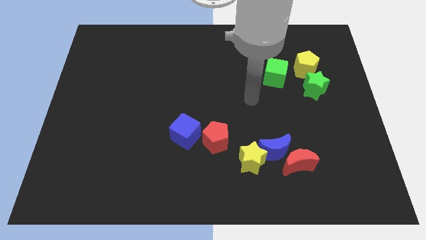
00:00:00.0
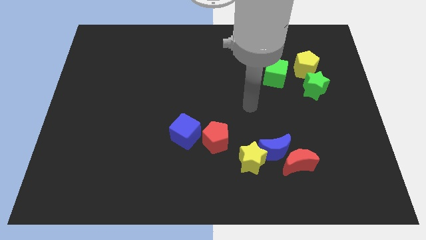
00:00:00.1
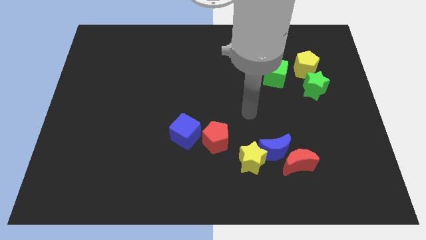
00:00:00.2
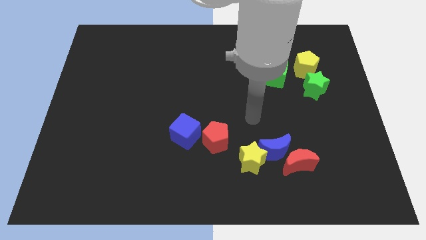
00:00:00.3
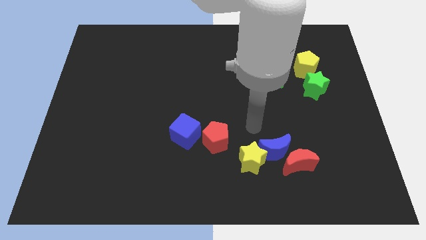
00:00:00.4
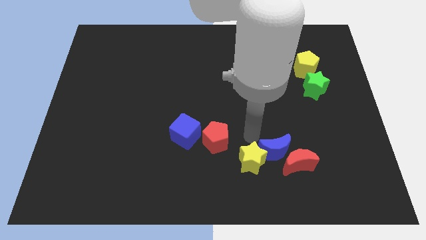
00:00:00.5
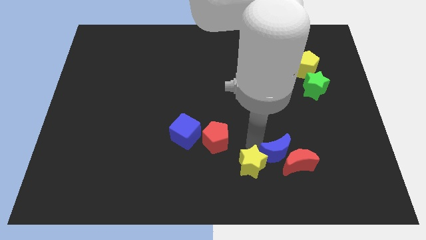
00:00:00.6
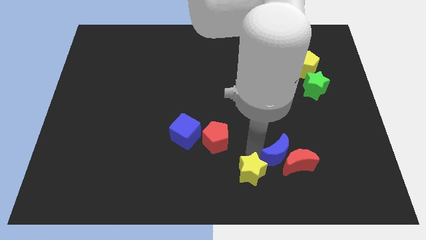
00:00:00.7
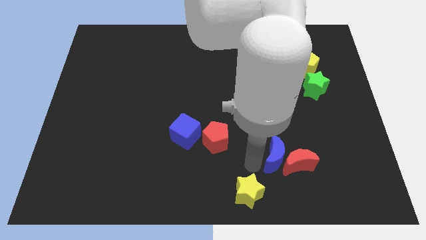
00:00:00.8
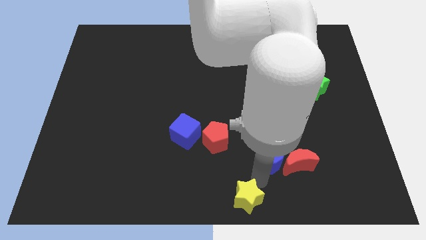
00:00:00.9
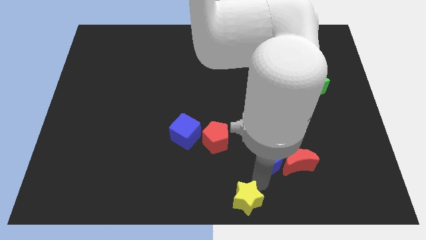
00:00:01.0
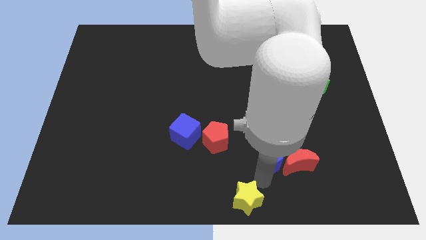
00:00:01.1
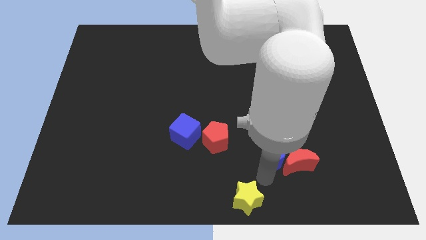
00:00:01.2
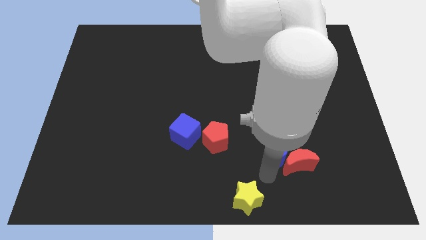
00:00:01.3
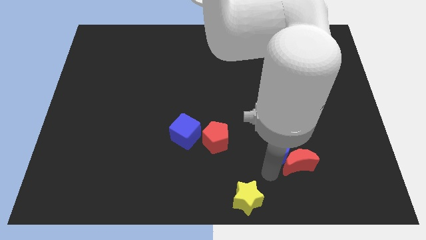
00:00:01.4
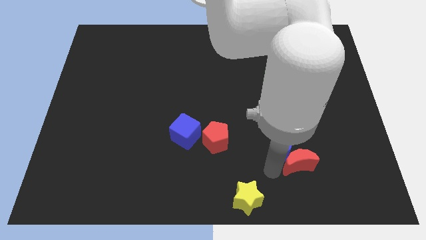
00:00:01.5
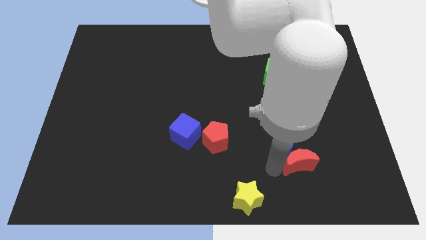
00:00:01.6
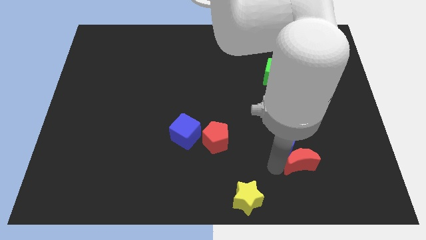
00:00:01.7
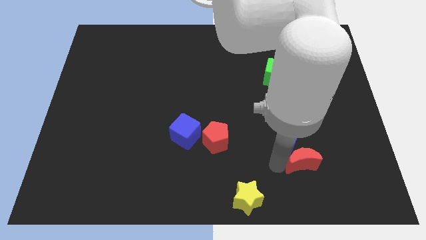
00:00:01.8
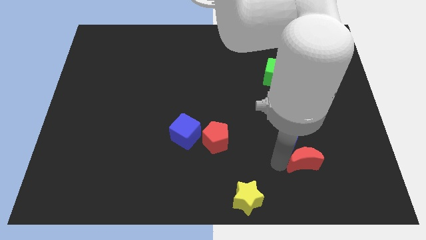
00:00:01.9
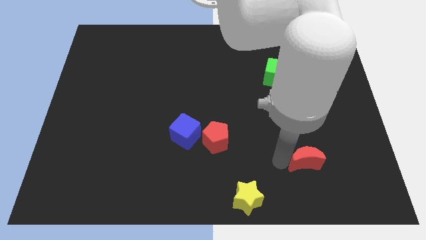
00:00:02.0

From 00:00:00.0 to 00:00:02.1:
move the blue moon away from the red moon and yellow star

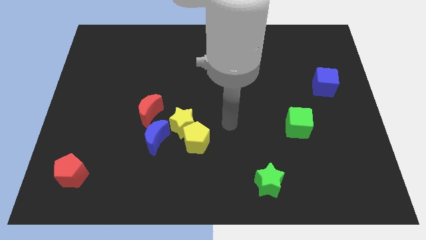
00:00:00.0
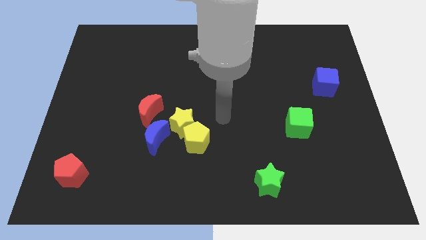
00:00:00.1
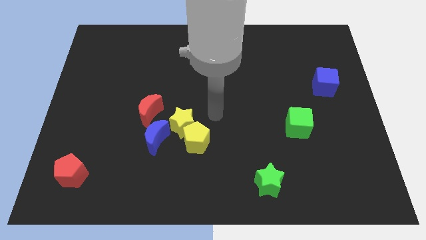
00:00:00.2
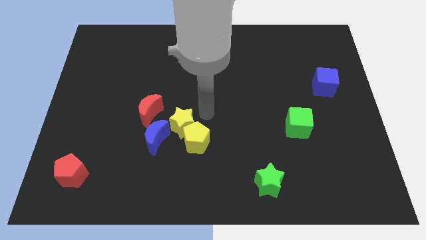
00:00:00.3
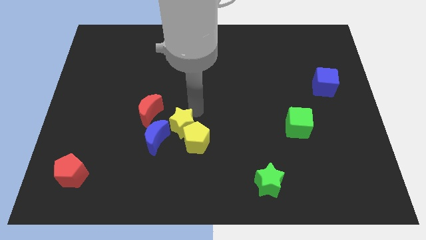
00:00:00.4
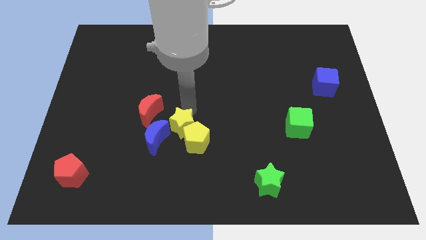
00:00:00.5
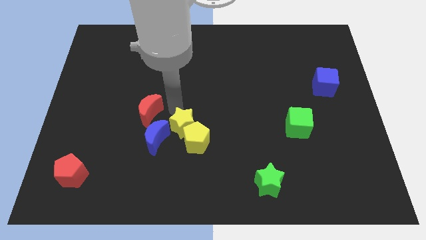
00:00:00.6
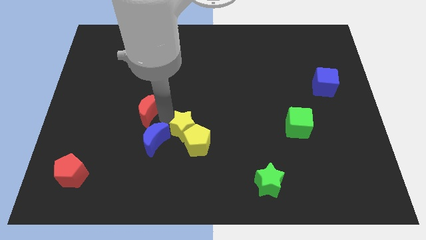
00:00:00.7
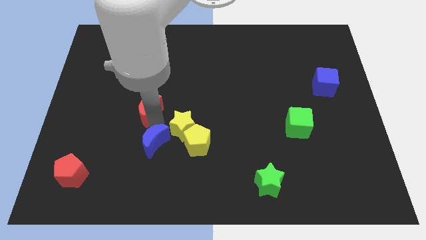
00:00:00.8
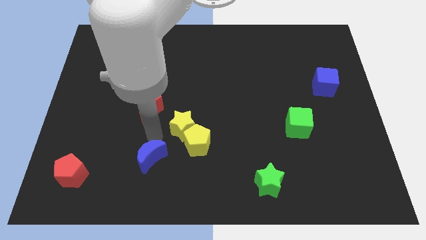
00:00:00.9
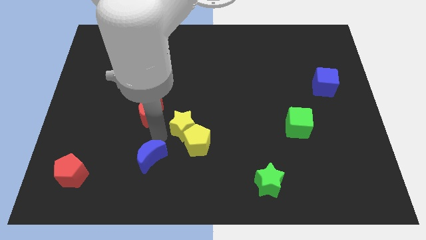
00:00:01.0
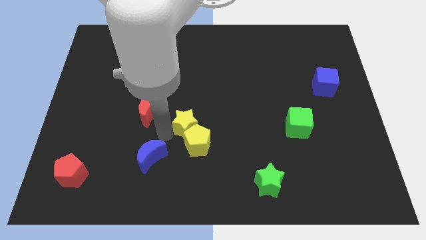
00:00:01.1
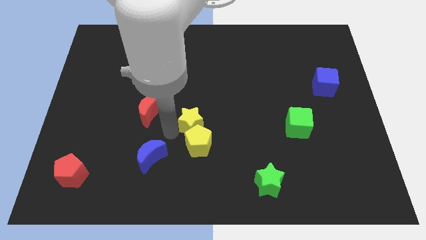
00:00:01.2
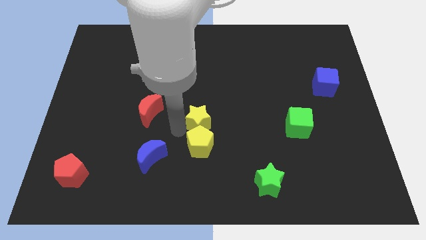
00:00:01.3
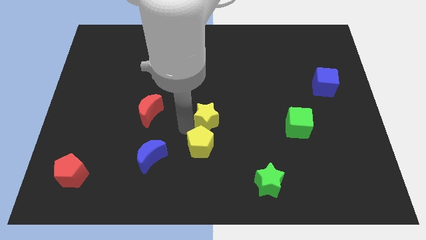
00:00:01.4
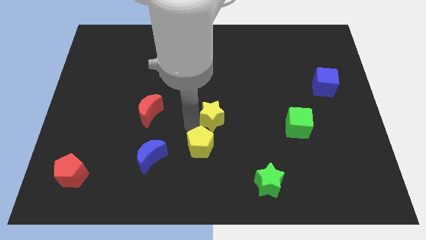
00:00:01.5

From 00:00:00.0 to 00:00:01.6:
pull the yellow star apart from the yellow pentagon, blue moon, and red moon

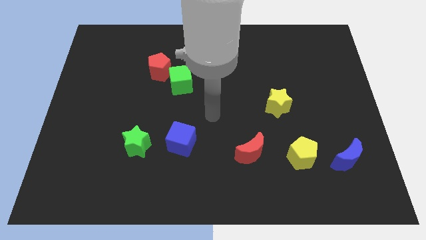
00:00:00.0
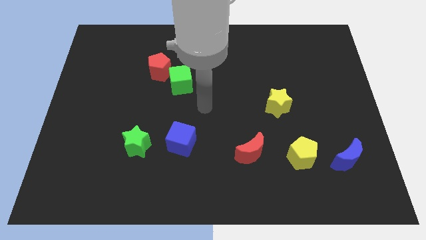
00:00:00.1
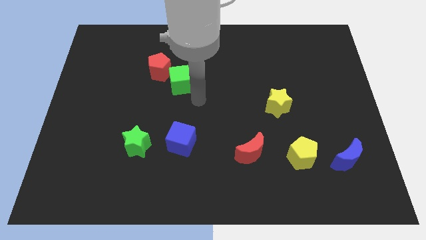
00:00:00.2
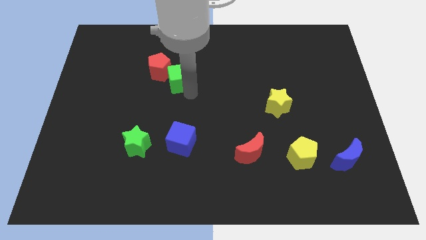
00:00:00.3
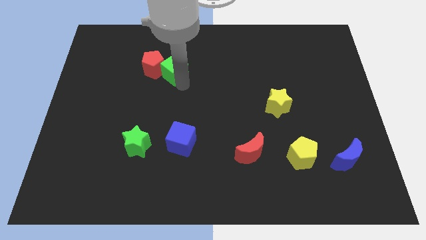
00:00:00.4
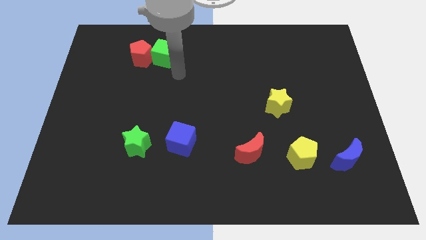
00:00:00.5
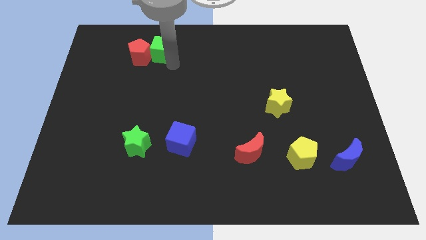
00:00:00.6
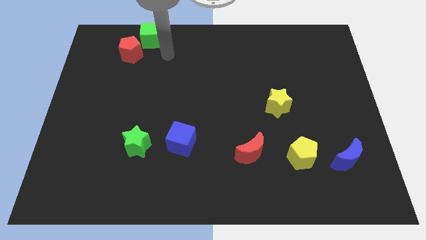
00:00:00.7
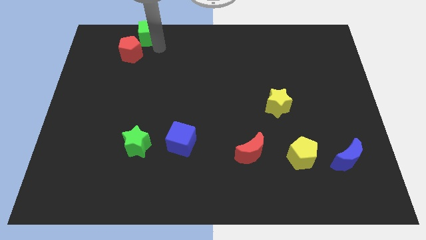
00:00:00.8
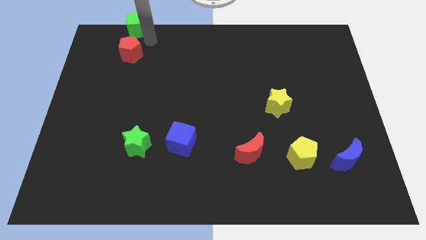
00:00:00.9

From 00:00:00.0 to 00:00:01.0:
separate the red pentagon from the green cube

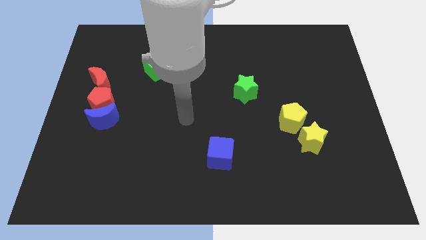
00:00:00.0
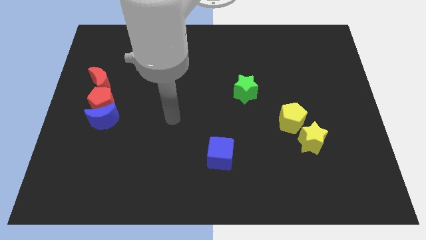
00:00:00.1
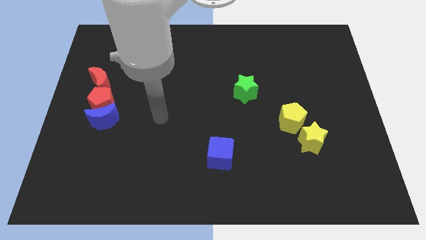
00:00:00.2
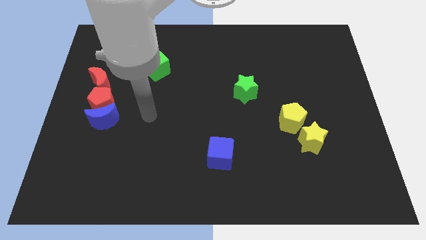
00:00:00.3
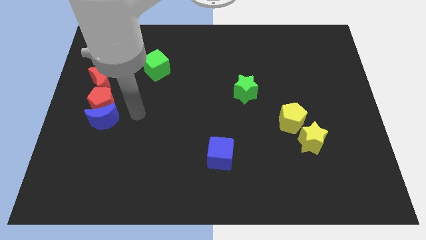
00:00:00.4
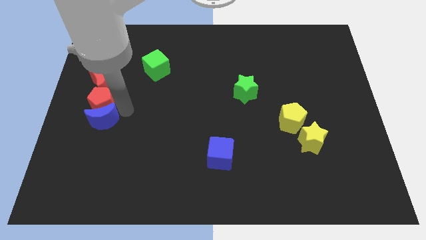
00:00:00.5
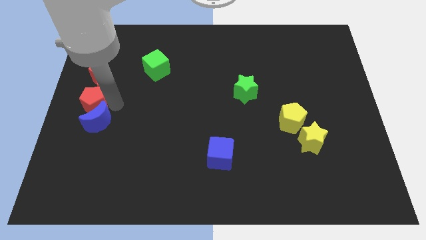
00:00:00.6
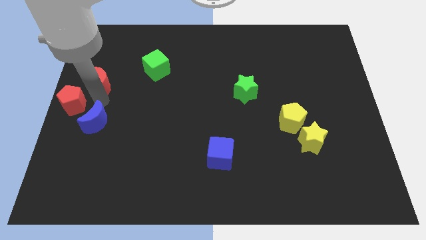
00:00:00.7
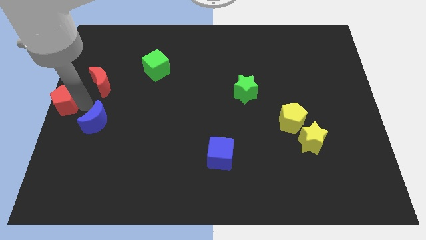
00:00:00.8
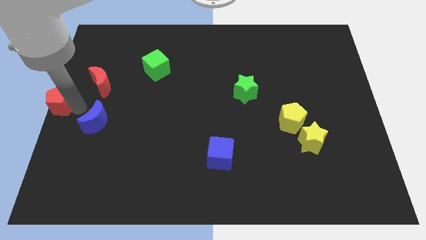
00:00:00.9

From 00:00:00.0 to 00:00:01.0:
separate the blue moon from the red pentagon

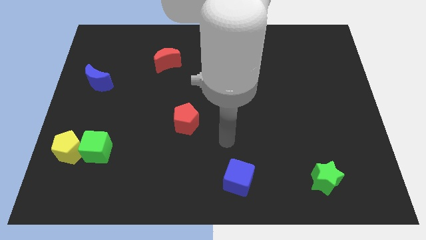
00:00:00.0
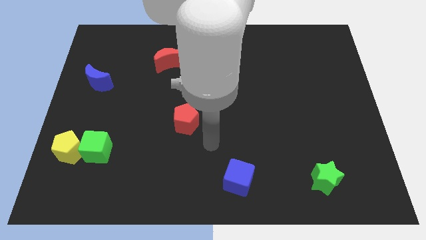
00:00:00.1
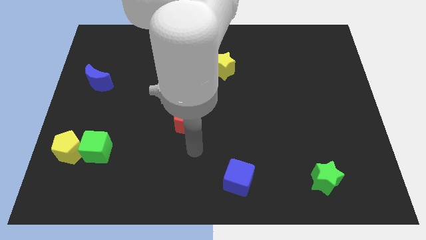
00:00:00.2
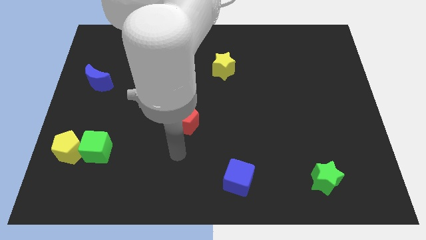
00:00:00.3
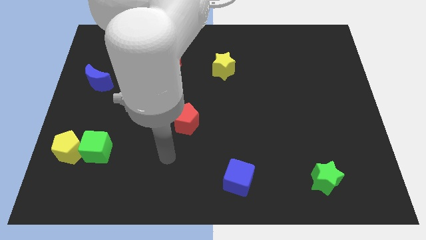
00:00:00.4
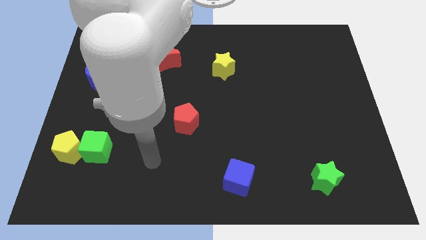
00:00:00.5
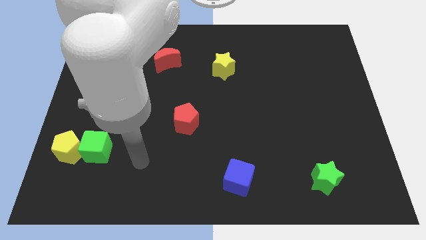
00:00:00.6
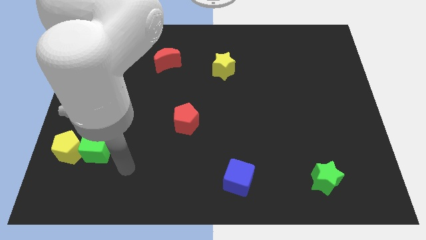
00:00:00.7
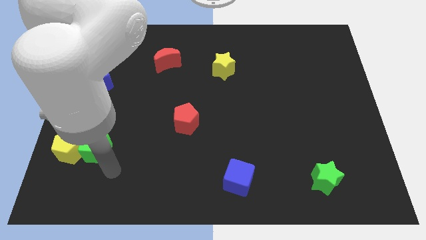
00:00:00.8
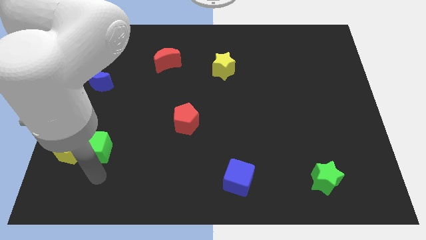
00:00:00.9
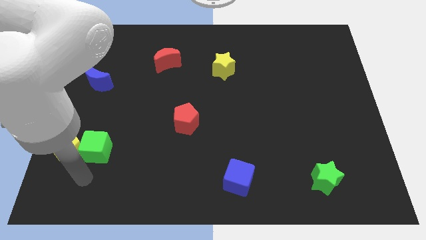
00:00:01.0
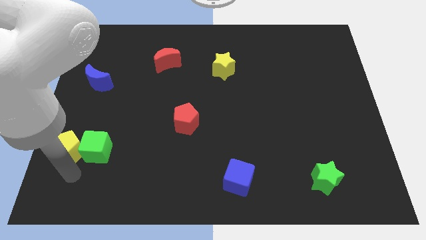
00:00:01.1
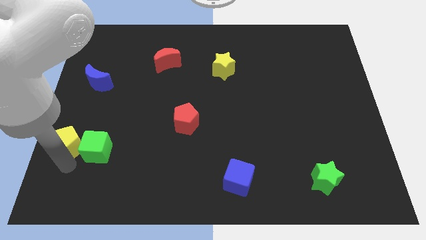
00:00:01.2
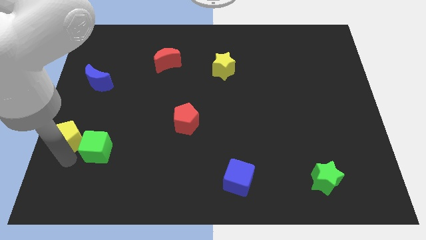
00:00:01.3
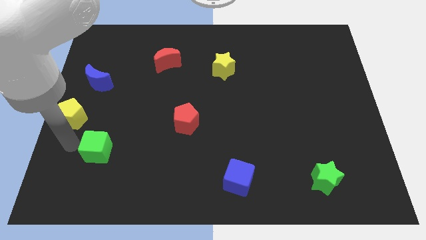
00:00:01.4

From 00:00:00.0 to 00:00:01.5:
move the green cube away from the yellow pentagon

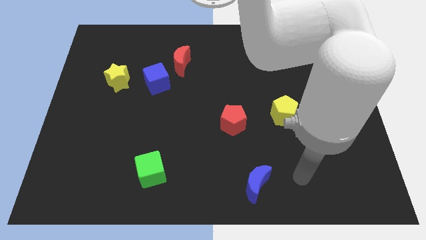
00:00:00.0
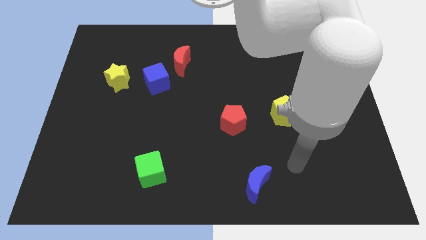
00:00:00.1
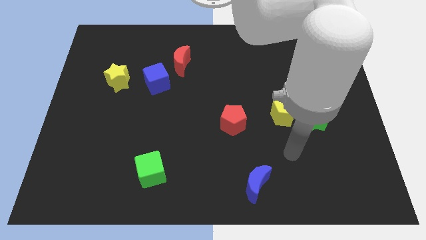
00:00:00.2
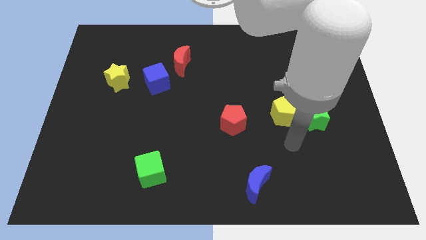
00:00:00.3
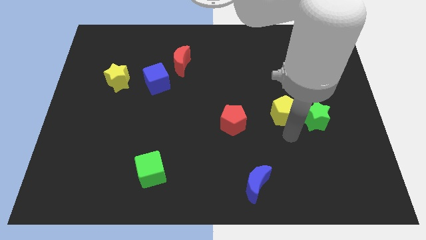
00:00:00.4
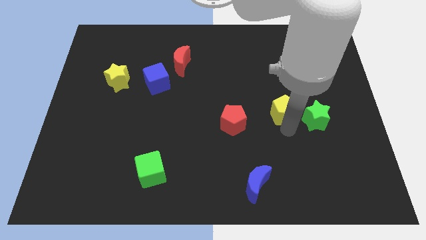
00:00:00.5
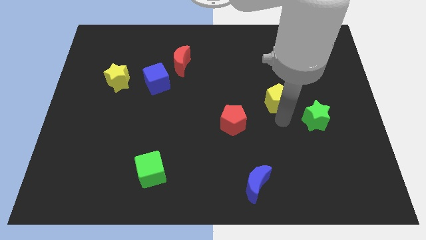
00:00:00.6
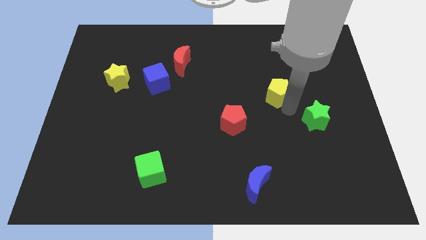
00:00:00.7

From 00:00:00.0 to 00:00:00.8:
separate the green star from the yellow pentagon

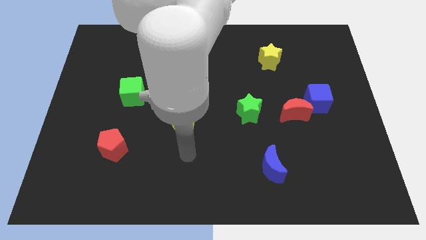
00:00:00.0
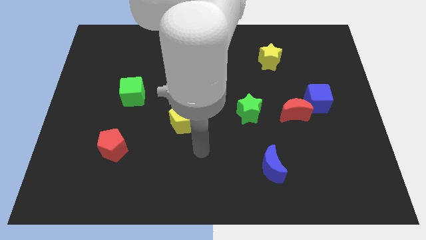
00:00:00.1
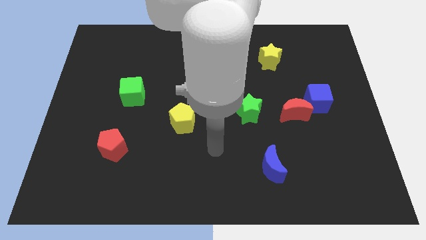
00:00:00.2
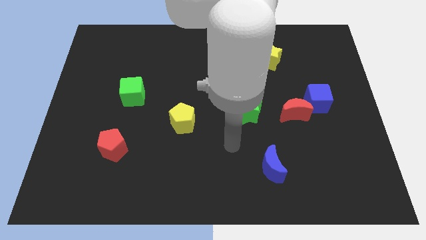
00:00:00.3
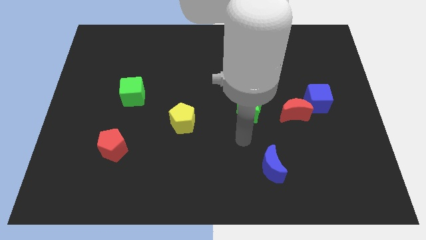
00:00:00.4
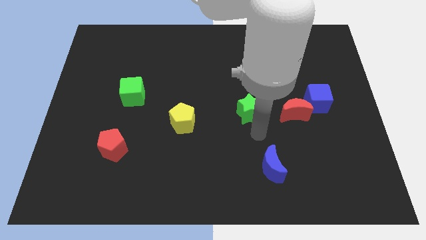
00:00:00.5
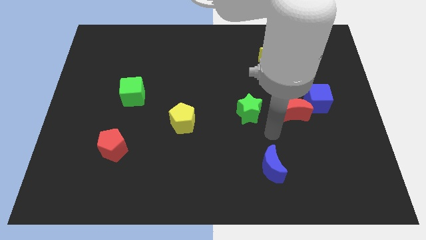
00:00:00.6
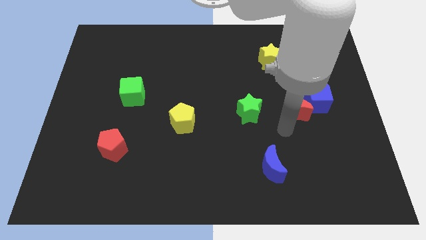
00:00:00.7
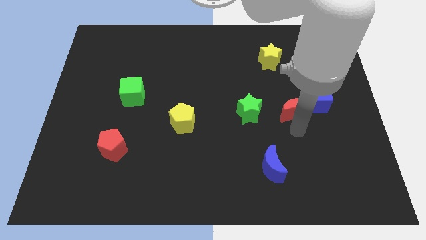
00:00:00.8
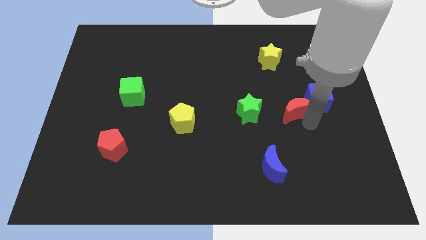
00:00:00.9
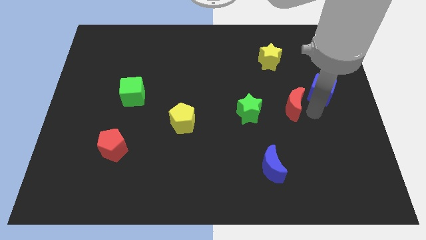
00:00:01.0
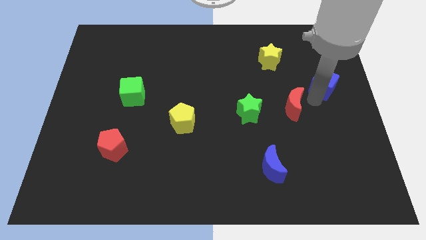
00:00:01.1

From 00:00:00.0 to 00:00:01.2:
pull the red moon apart from the blue cube

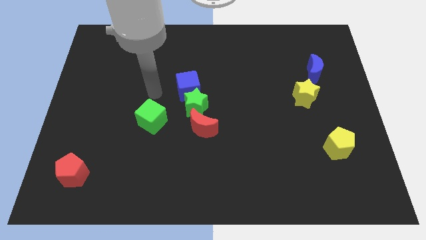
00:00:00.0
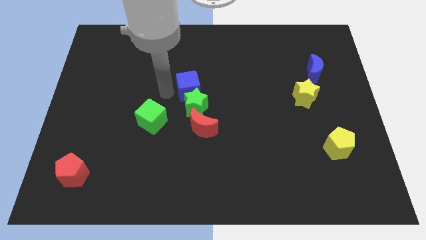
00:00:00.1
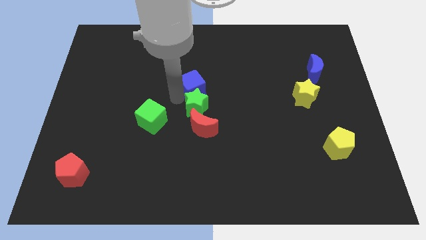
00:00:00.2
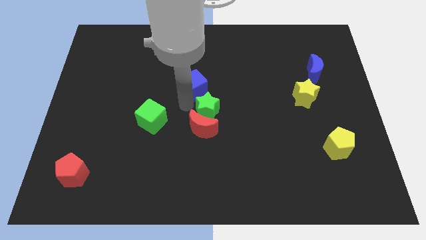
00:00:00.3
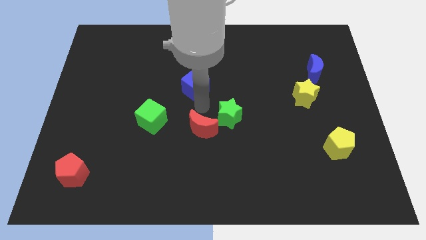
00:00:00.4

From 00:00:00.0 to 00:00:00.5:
separate the blue cube from the green star
